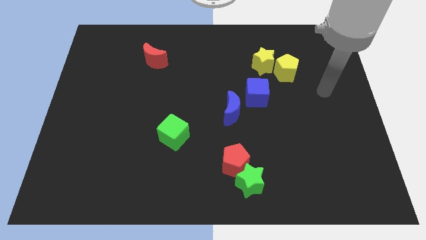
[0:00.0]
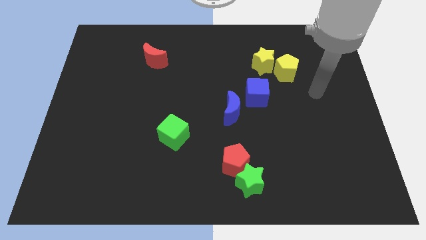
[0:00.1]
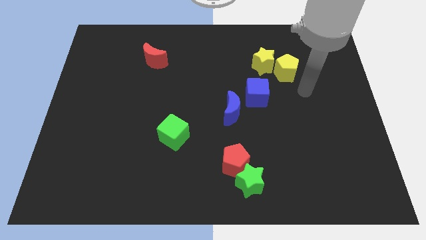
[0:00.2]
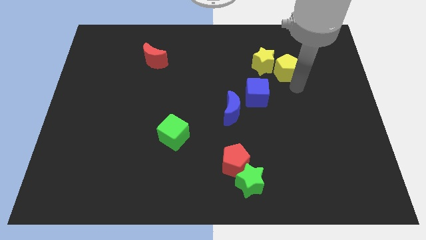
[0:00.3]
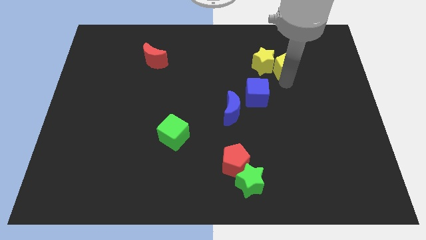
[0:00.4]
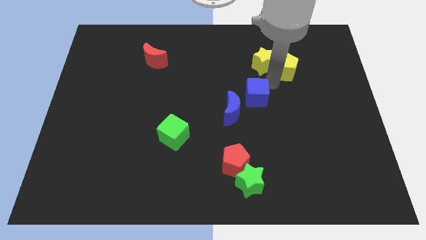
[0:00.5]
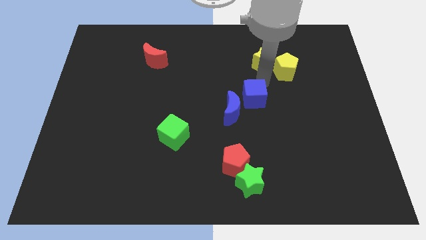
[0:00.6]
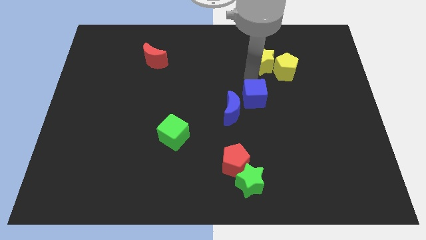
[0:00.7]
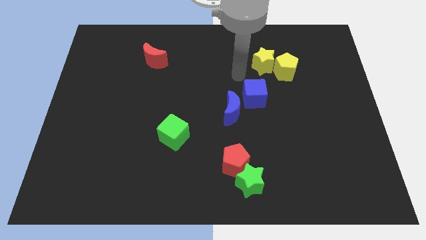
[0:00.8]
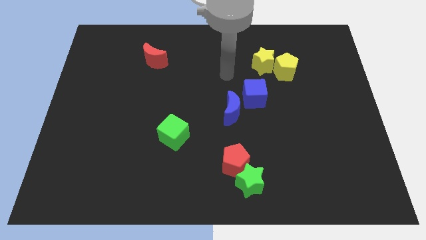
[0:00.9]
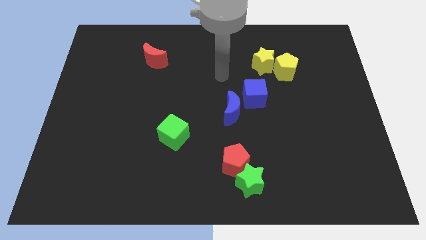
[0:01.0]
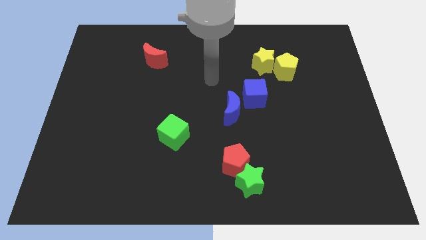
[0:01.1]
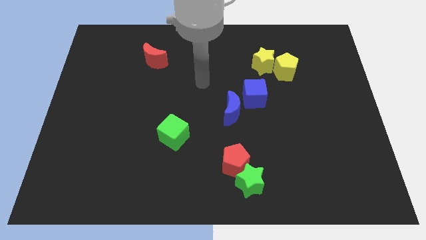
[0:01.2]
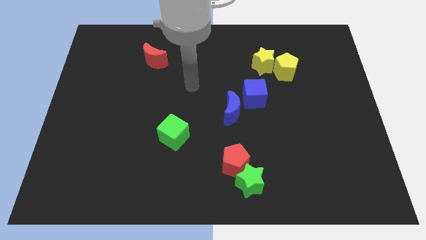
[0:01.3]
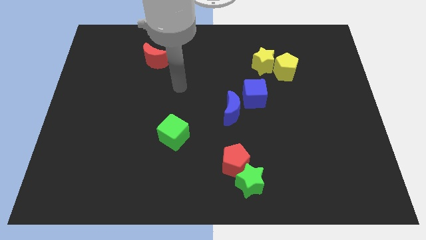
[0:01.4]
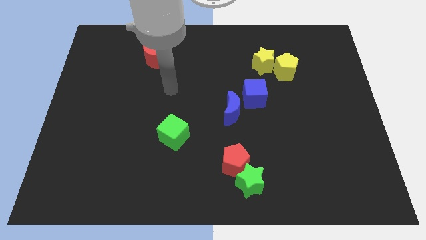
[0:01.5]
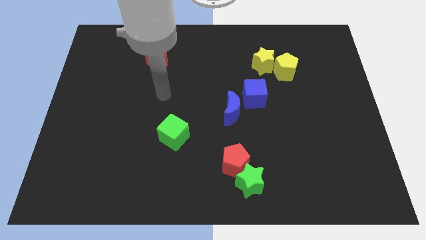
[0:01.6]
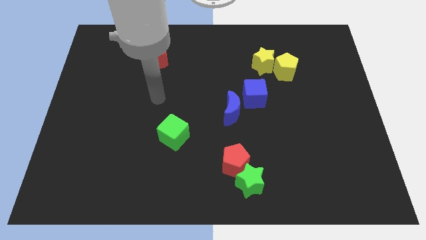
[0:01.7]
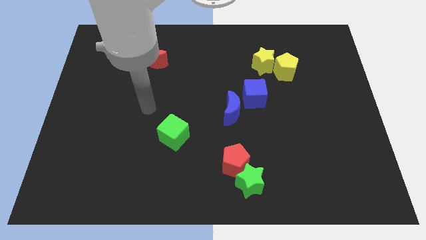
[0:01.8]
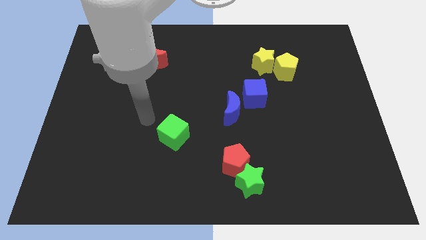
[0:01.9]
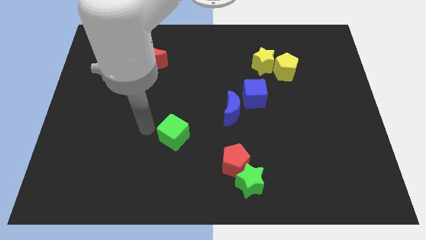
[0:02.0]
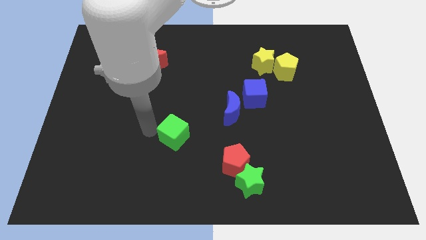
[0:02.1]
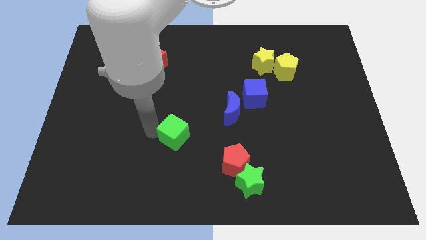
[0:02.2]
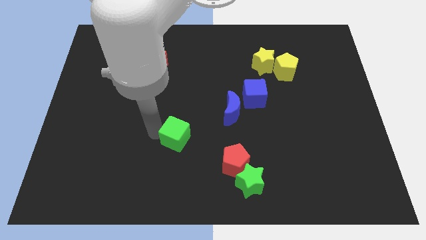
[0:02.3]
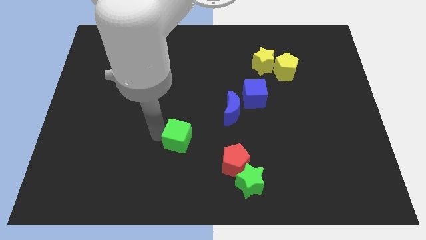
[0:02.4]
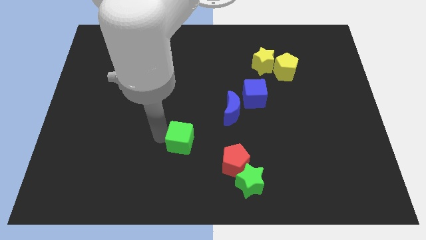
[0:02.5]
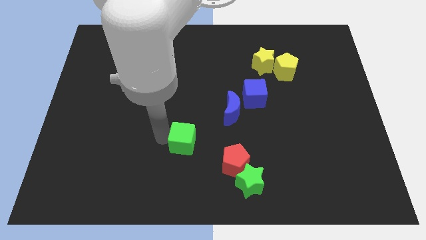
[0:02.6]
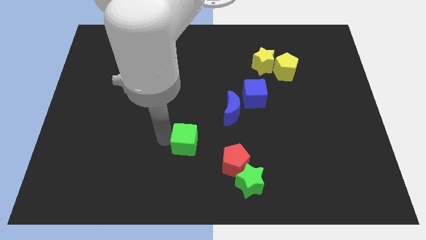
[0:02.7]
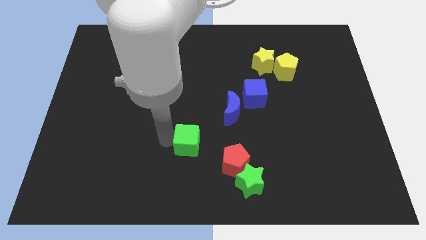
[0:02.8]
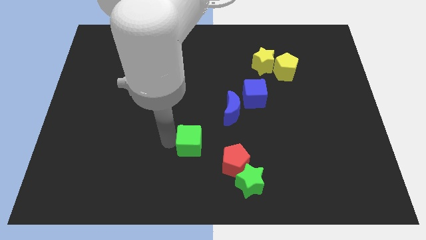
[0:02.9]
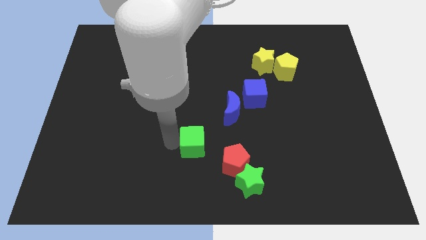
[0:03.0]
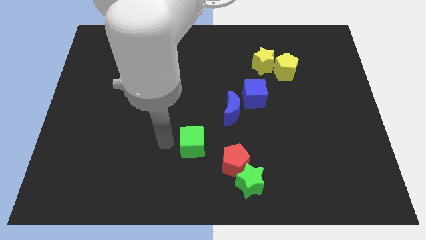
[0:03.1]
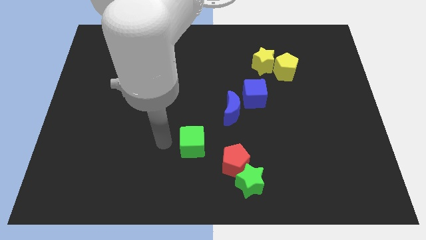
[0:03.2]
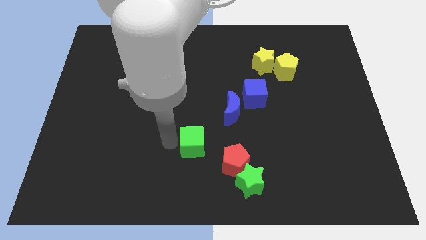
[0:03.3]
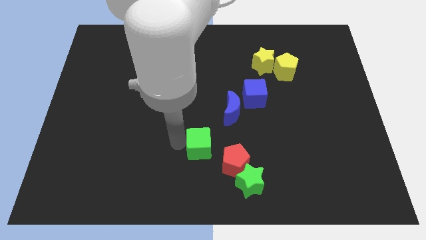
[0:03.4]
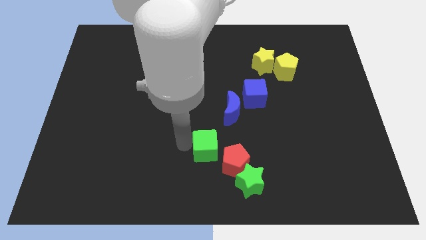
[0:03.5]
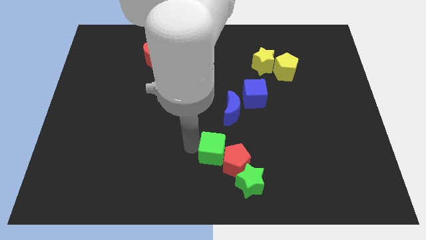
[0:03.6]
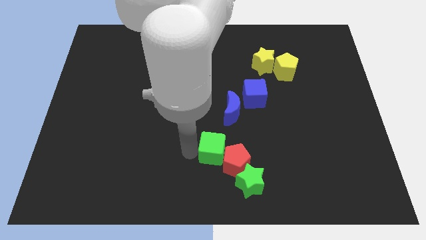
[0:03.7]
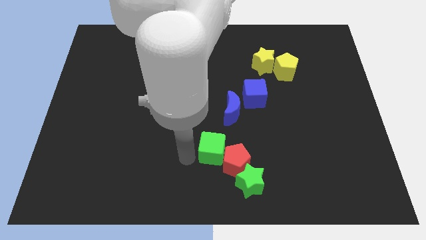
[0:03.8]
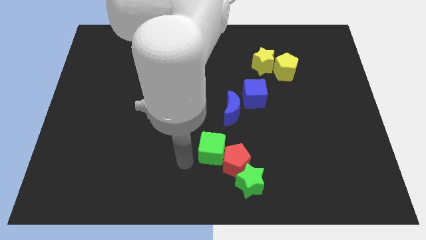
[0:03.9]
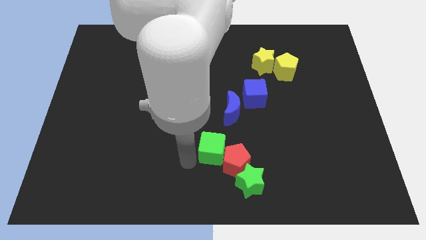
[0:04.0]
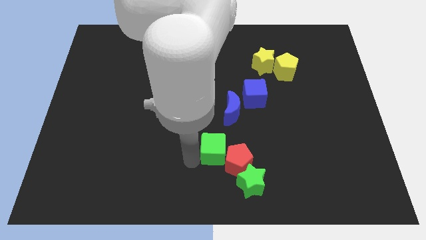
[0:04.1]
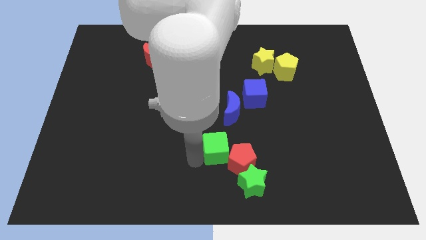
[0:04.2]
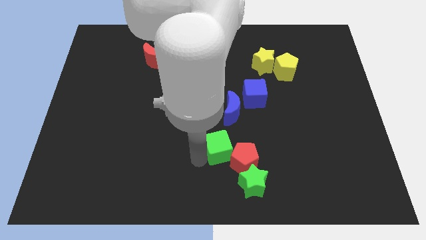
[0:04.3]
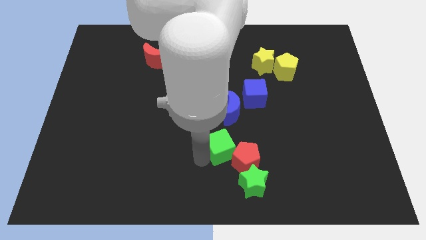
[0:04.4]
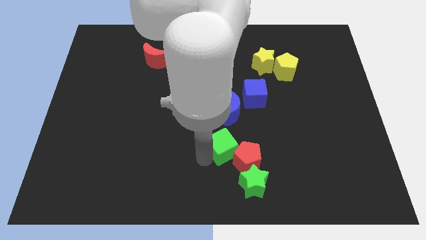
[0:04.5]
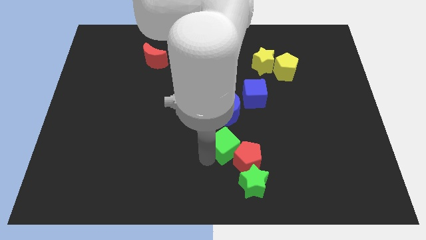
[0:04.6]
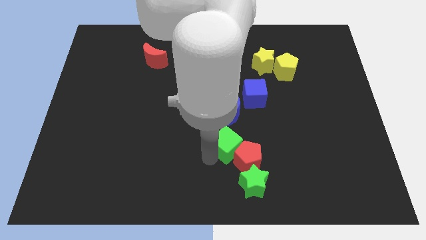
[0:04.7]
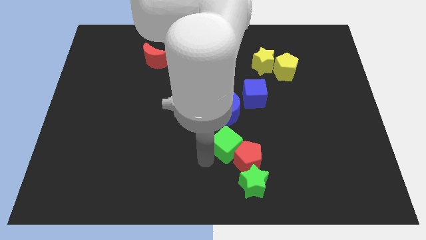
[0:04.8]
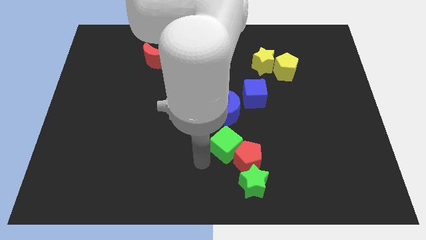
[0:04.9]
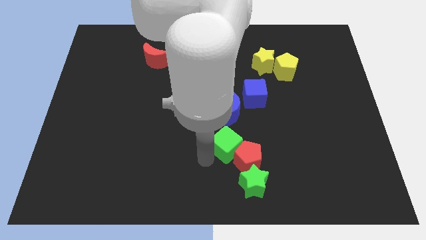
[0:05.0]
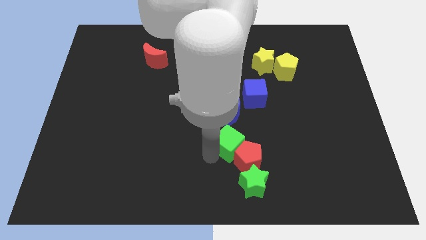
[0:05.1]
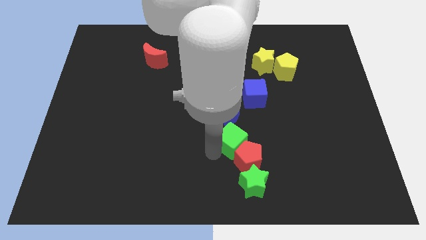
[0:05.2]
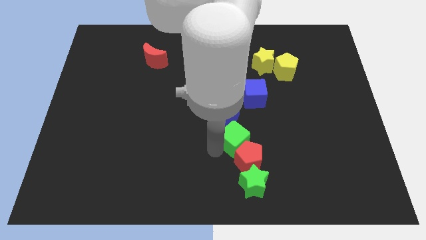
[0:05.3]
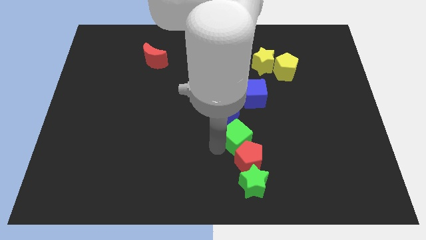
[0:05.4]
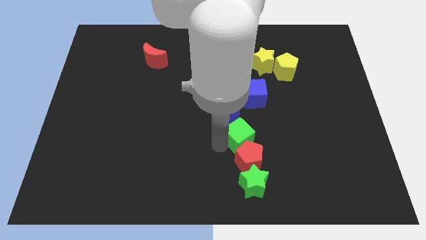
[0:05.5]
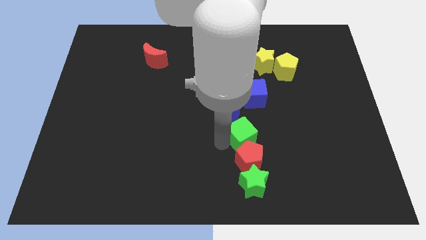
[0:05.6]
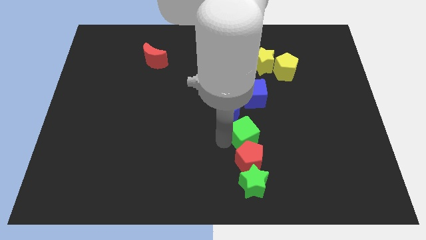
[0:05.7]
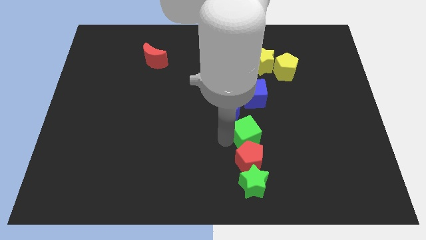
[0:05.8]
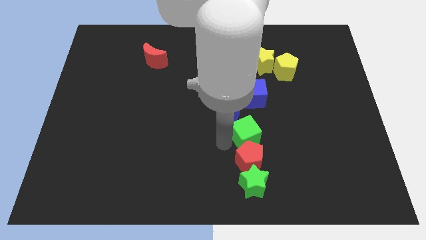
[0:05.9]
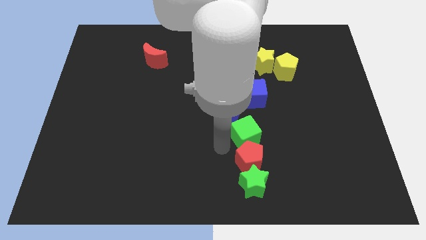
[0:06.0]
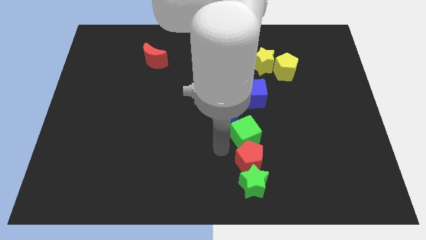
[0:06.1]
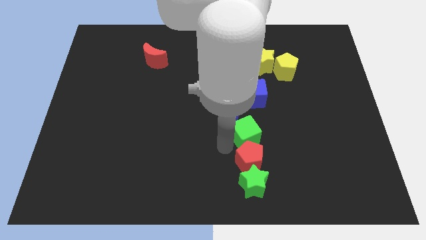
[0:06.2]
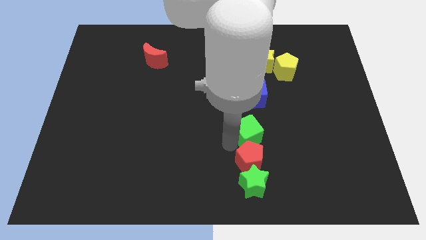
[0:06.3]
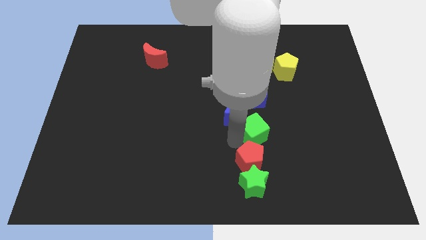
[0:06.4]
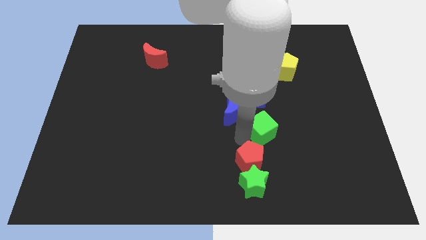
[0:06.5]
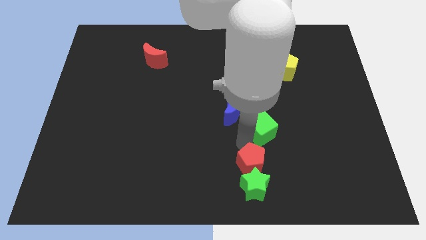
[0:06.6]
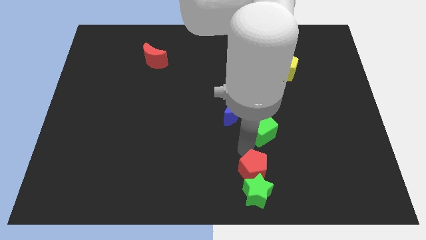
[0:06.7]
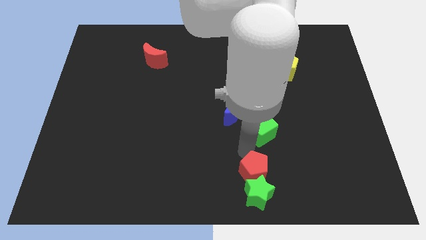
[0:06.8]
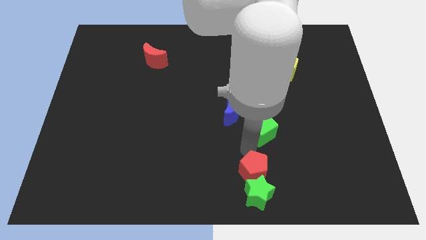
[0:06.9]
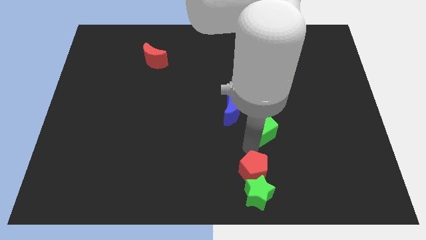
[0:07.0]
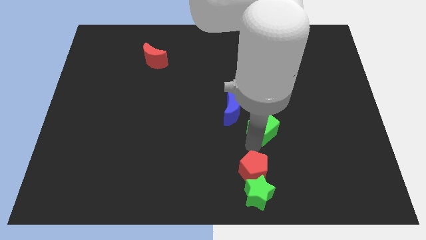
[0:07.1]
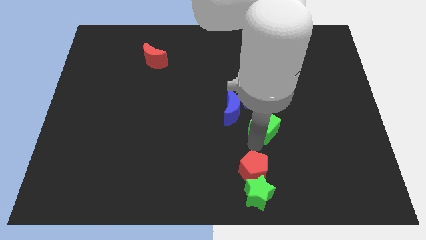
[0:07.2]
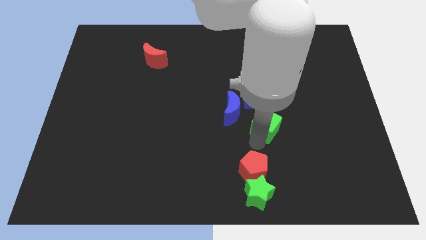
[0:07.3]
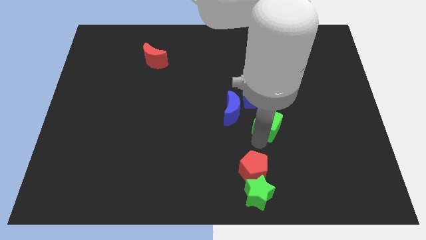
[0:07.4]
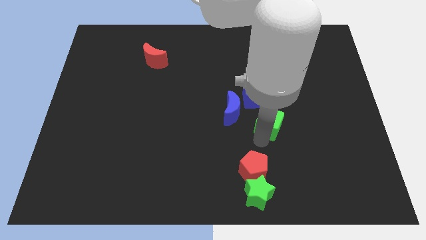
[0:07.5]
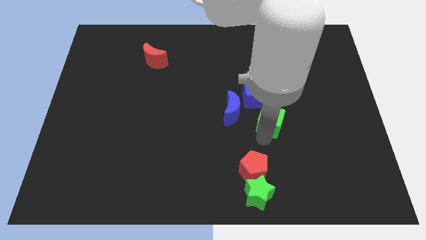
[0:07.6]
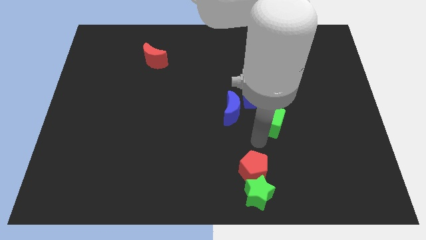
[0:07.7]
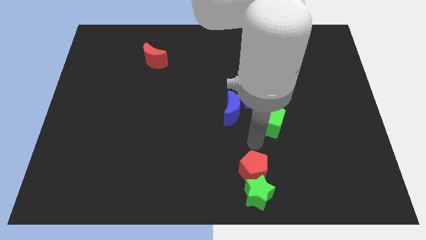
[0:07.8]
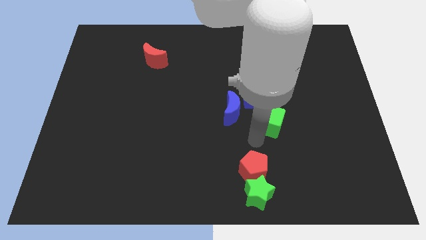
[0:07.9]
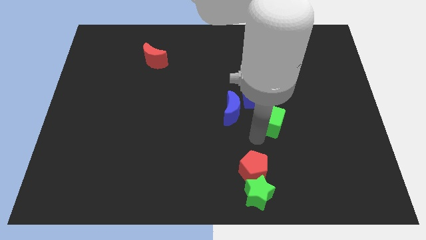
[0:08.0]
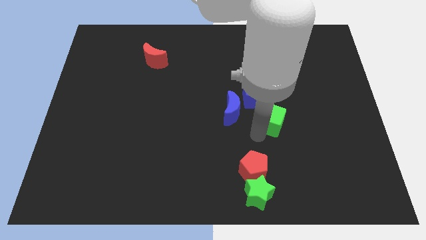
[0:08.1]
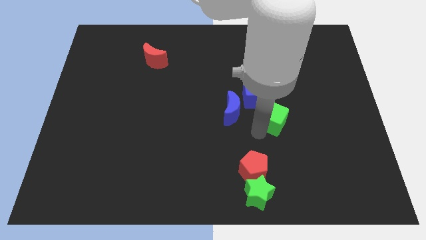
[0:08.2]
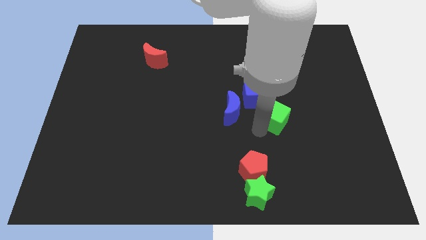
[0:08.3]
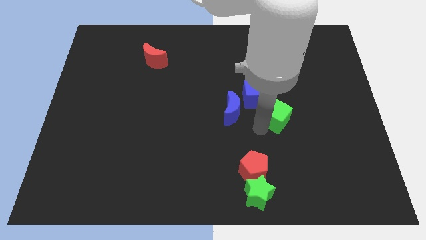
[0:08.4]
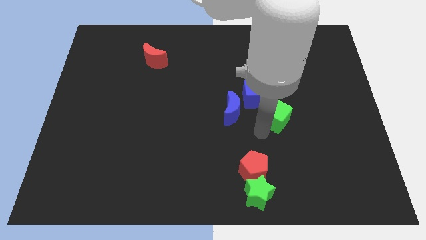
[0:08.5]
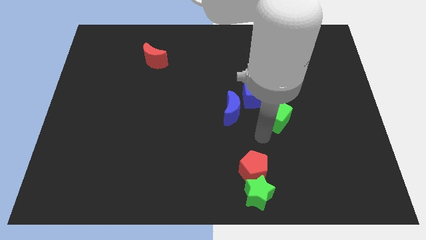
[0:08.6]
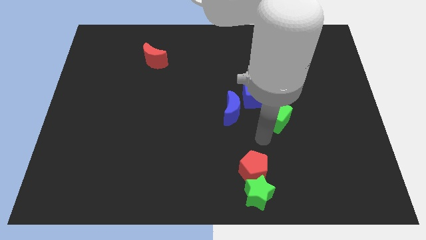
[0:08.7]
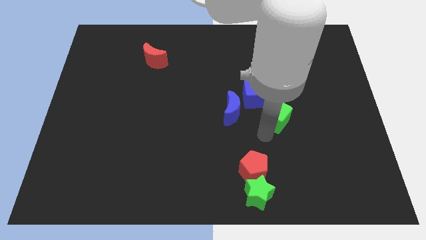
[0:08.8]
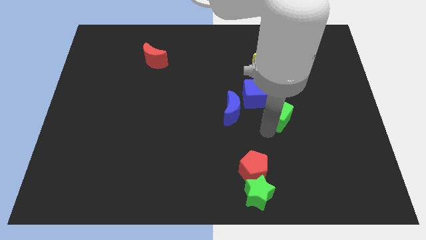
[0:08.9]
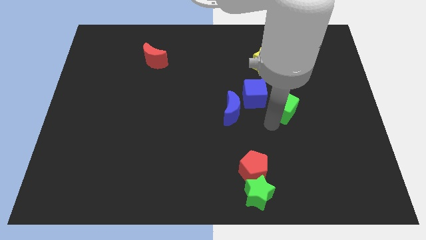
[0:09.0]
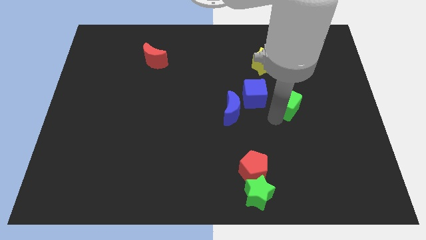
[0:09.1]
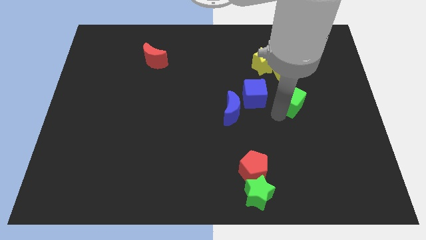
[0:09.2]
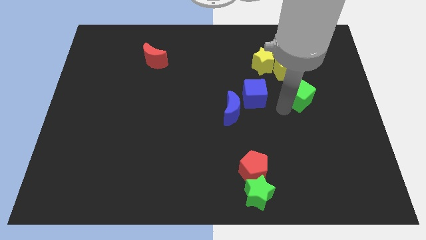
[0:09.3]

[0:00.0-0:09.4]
move the green cube to the bottom right side of the yellow pentagon
